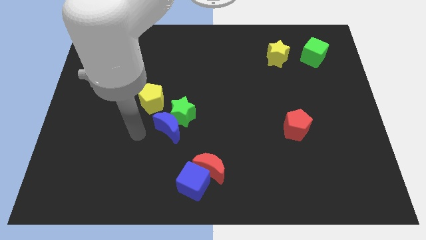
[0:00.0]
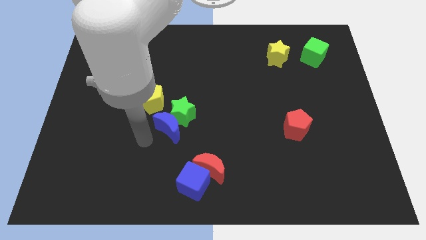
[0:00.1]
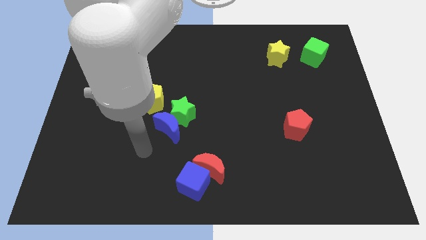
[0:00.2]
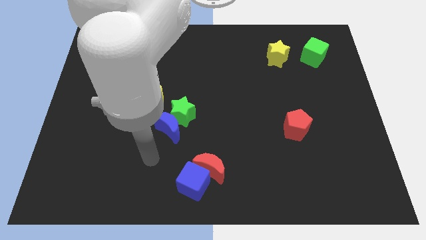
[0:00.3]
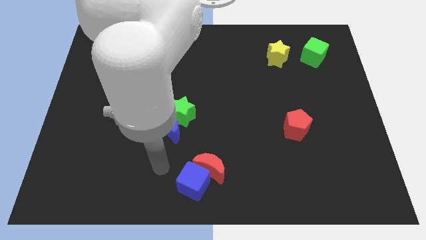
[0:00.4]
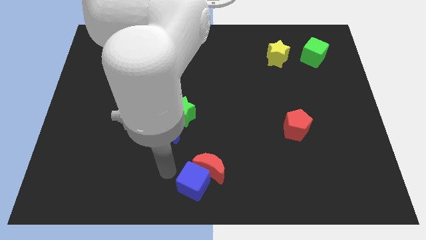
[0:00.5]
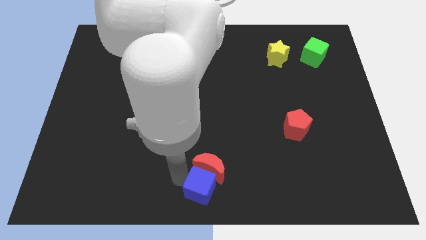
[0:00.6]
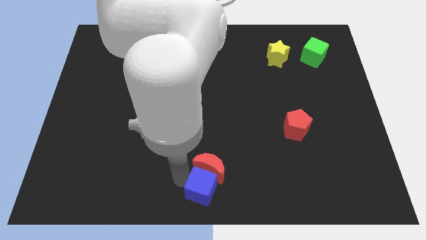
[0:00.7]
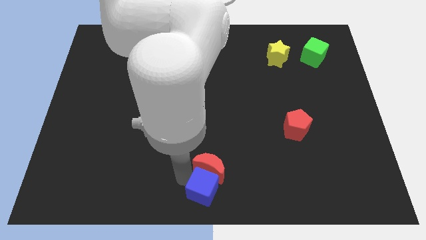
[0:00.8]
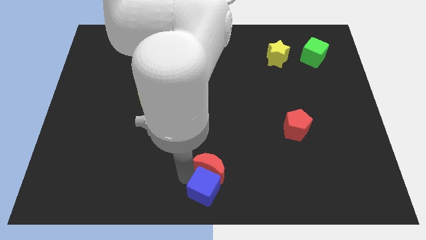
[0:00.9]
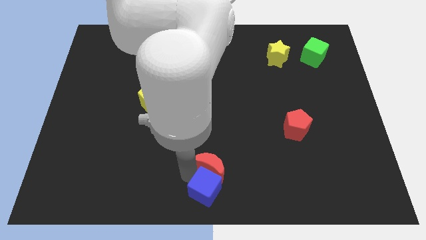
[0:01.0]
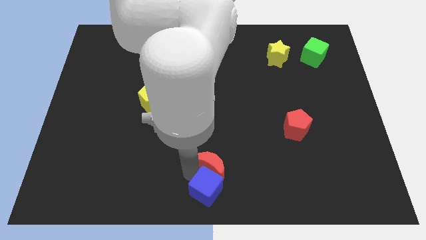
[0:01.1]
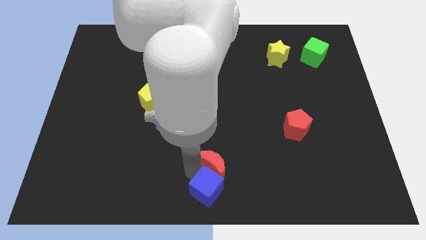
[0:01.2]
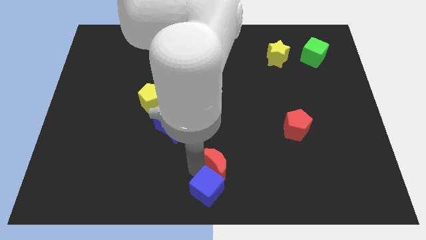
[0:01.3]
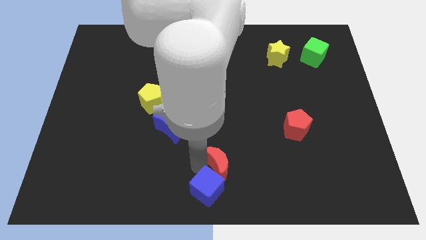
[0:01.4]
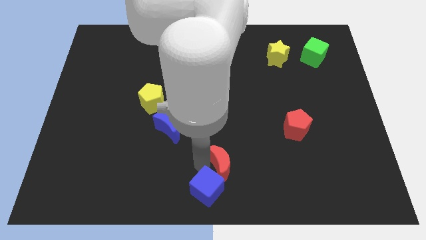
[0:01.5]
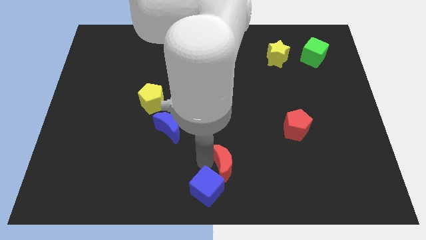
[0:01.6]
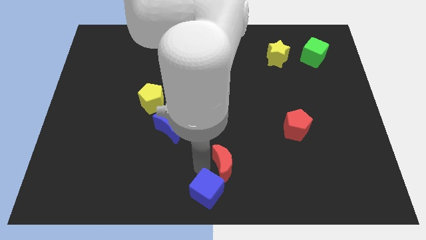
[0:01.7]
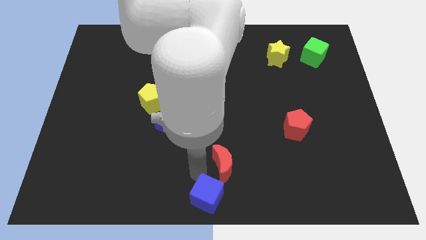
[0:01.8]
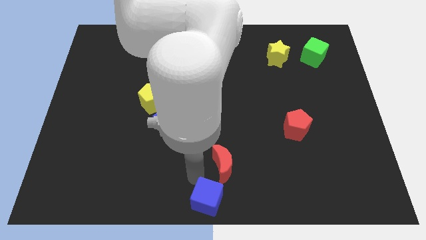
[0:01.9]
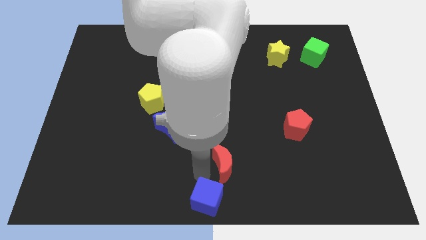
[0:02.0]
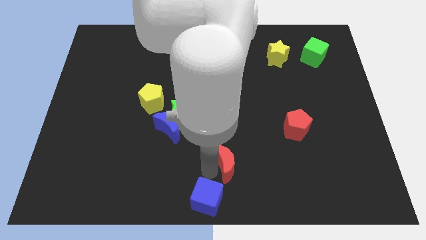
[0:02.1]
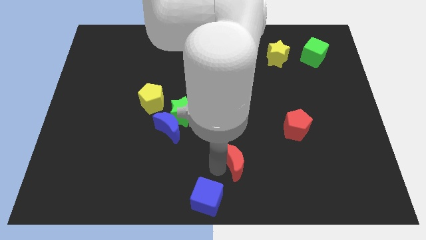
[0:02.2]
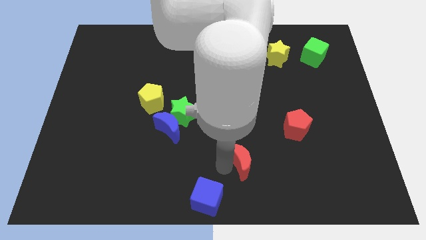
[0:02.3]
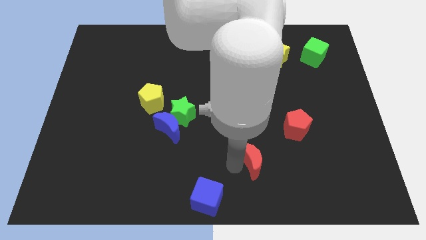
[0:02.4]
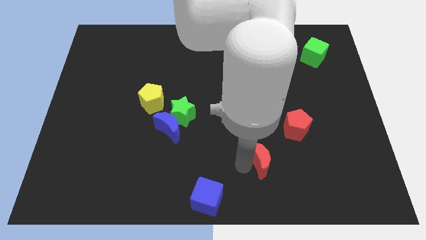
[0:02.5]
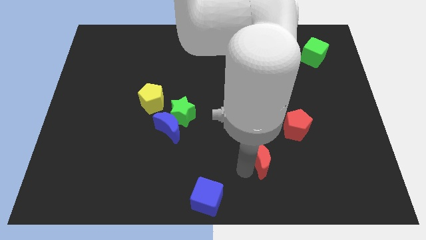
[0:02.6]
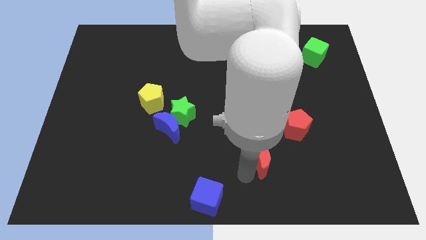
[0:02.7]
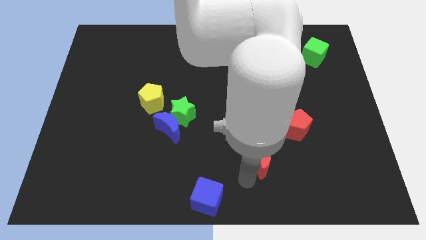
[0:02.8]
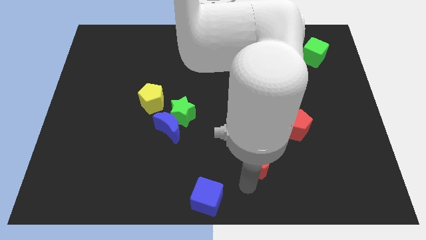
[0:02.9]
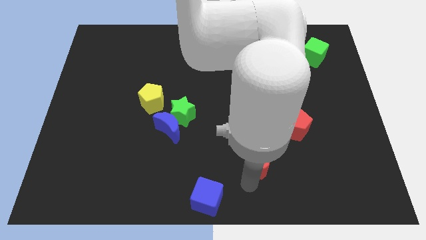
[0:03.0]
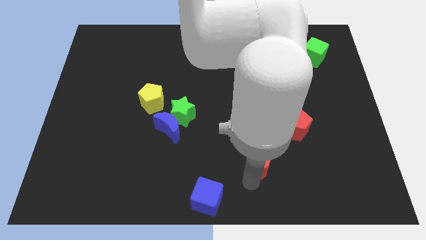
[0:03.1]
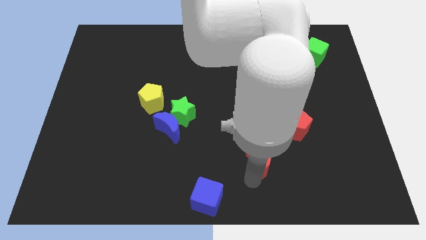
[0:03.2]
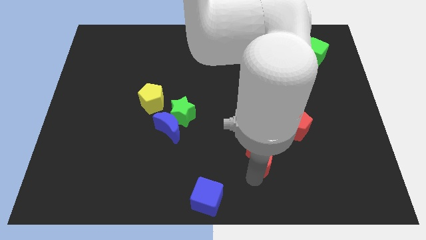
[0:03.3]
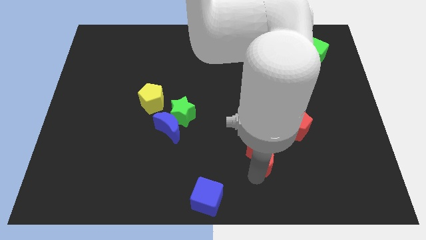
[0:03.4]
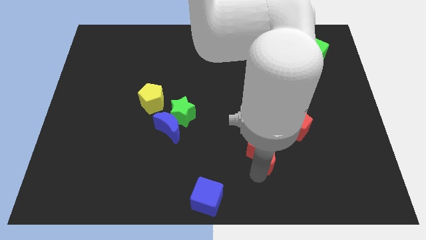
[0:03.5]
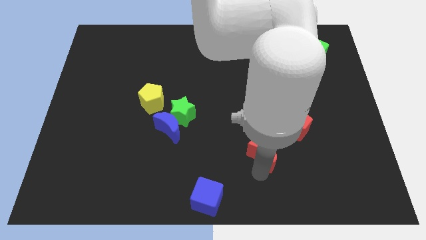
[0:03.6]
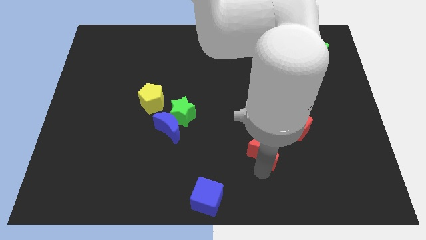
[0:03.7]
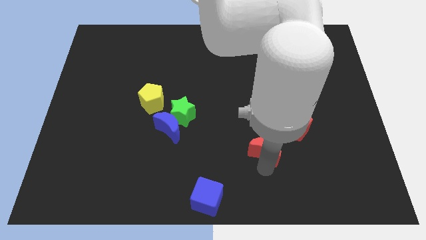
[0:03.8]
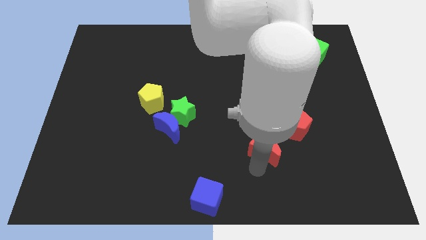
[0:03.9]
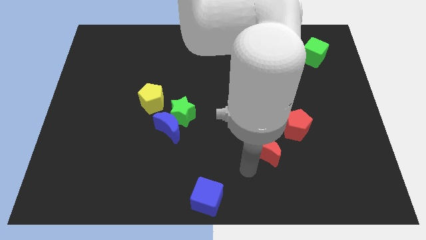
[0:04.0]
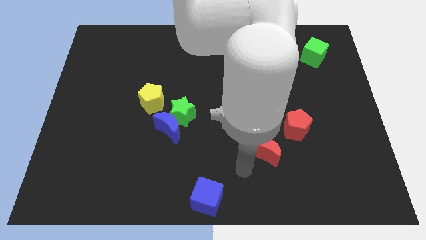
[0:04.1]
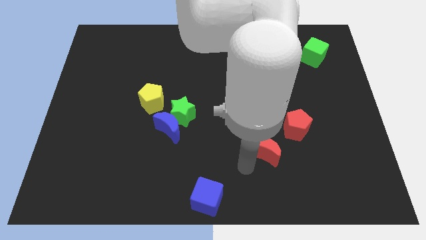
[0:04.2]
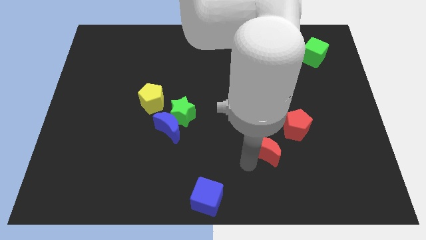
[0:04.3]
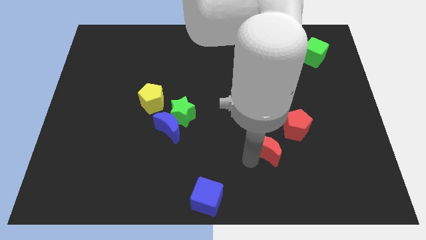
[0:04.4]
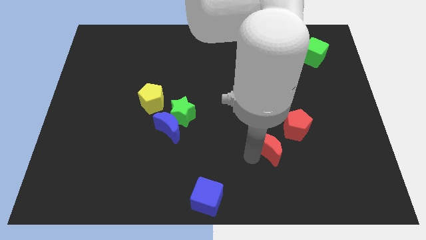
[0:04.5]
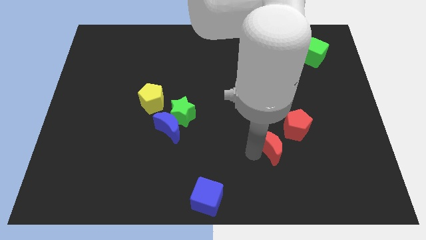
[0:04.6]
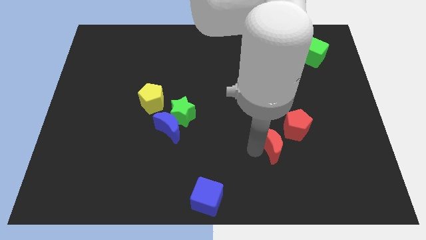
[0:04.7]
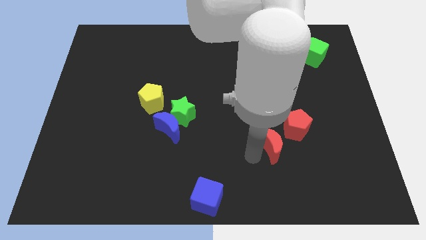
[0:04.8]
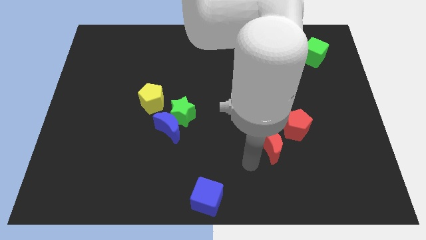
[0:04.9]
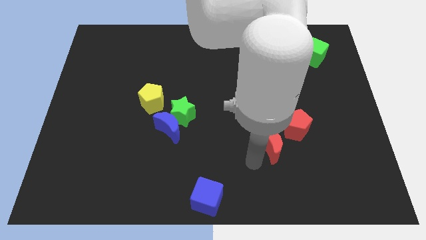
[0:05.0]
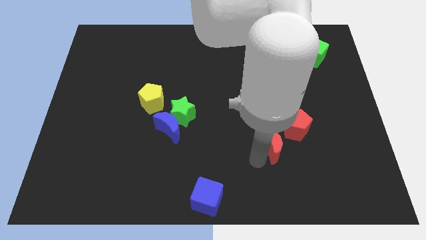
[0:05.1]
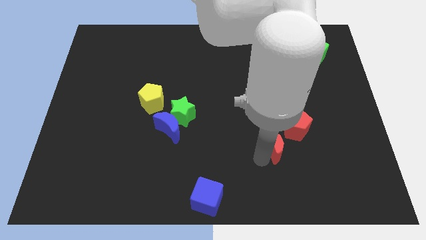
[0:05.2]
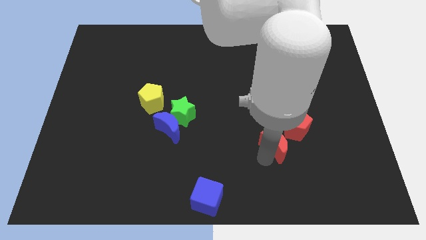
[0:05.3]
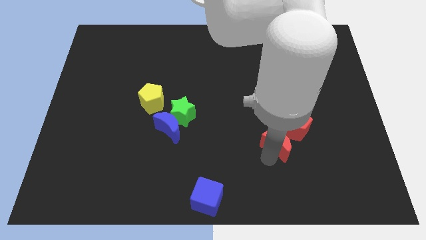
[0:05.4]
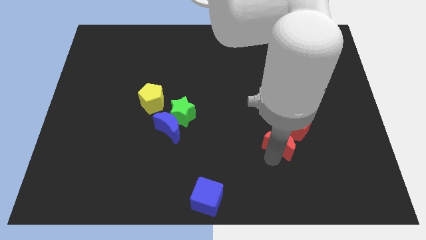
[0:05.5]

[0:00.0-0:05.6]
put the red moon to the red pentagon

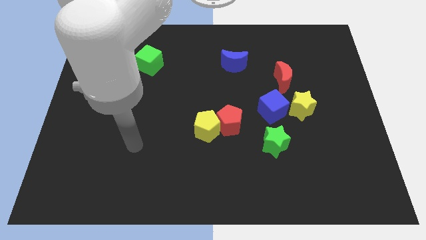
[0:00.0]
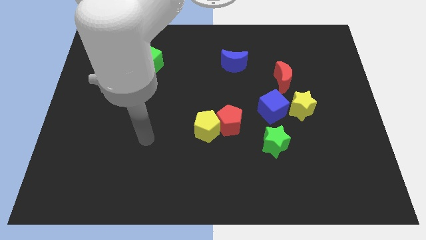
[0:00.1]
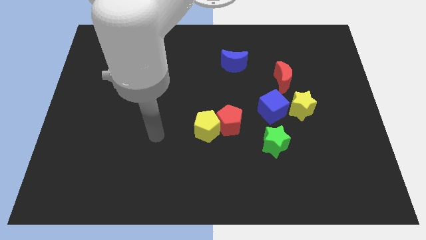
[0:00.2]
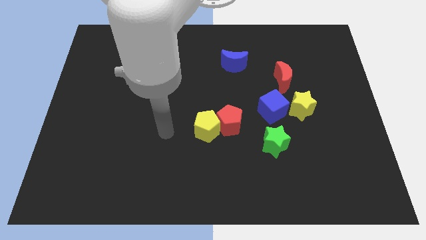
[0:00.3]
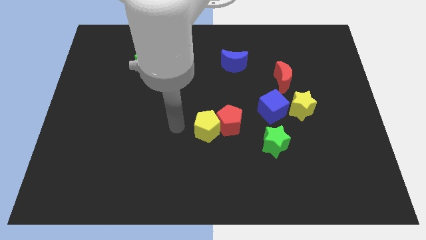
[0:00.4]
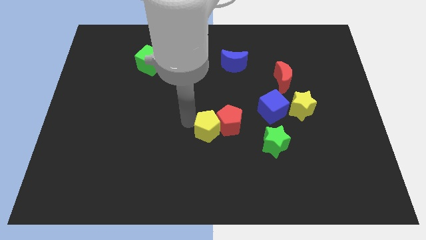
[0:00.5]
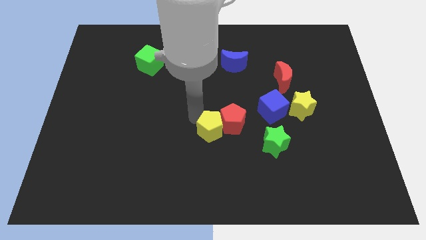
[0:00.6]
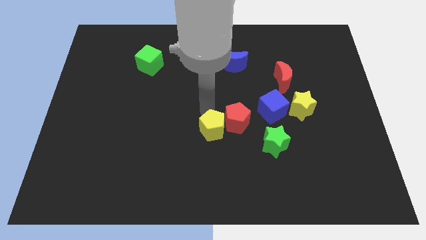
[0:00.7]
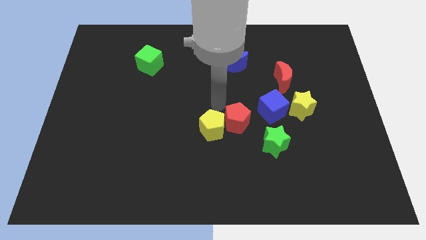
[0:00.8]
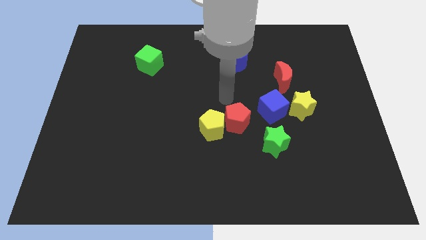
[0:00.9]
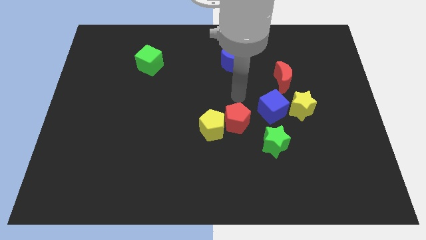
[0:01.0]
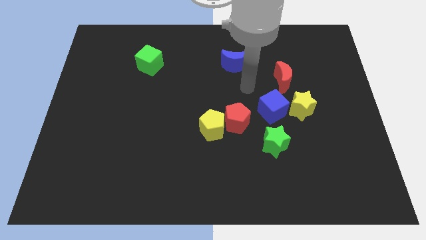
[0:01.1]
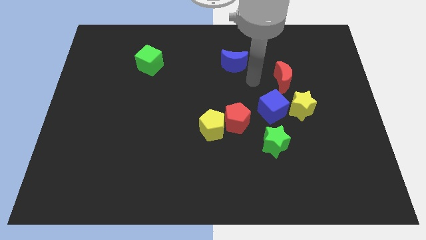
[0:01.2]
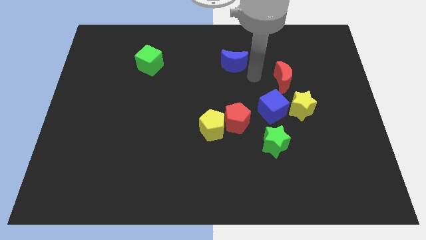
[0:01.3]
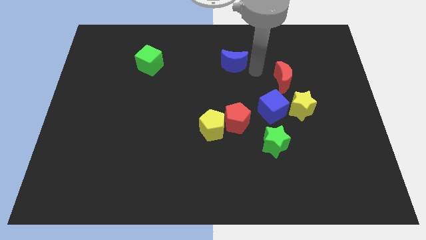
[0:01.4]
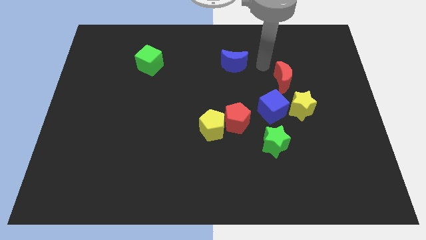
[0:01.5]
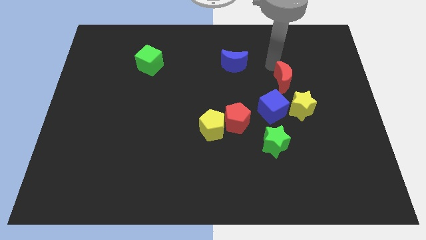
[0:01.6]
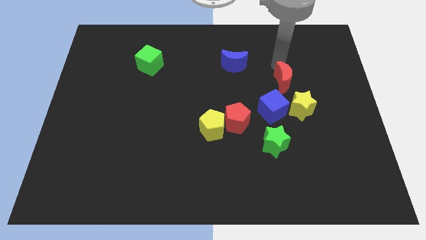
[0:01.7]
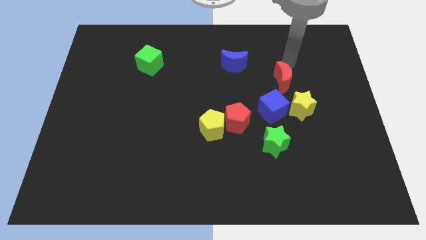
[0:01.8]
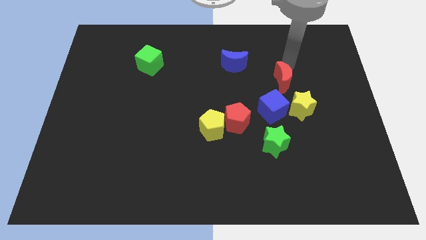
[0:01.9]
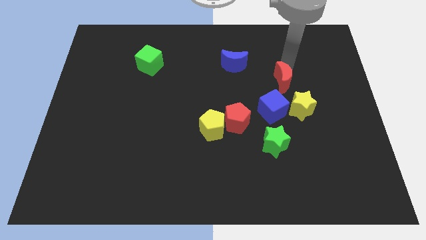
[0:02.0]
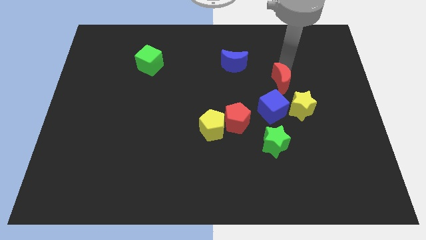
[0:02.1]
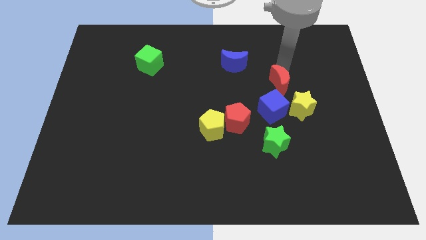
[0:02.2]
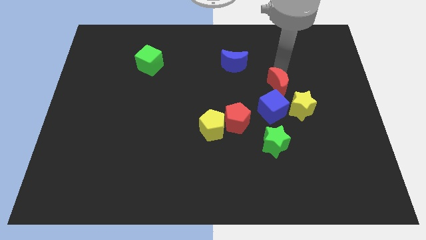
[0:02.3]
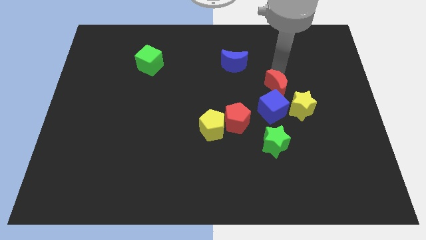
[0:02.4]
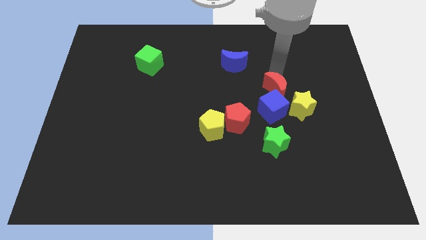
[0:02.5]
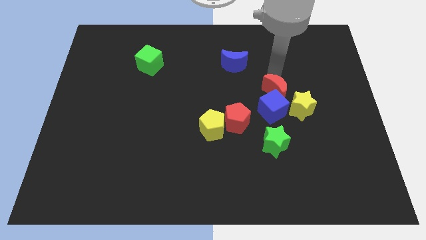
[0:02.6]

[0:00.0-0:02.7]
slide the red moon to the blue cube
